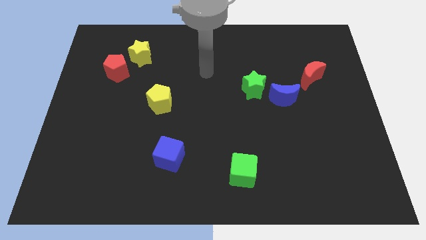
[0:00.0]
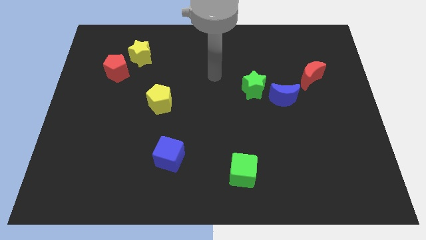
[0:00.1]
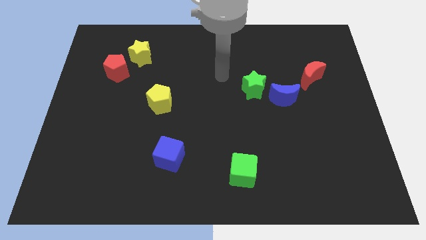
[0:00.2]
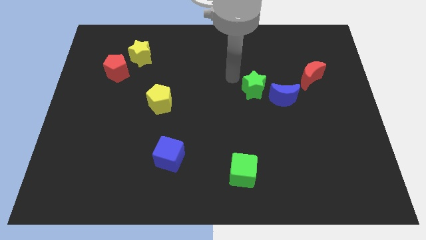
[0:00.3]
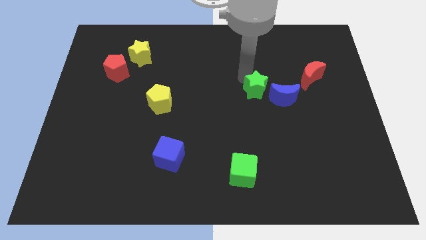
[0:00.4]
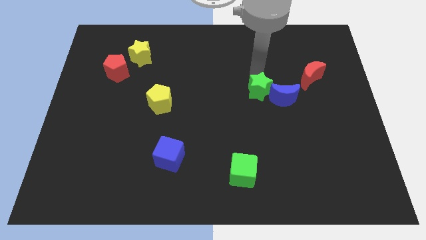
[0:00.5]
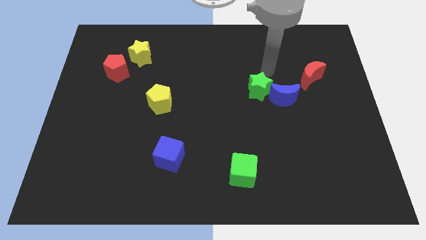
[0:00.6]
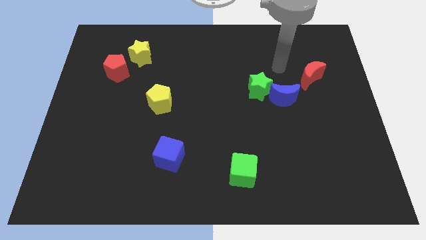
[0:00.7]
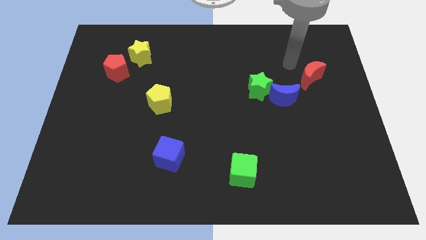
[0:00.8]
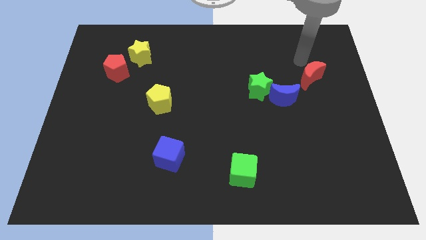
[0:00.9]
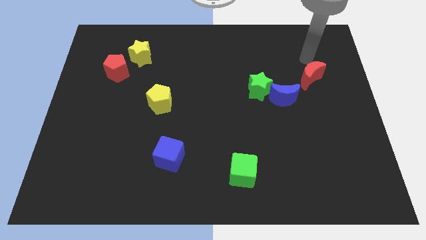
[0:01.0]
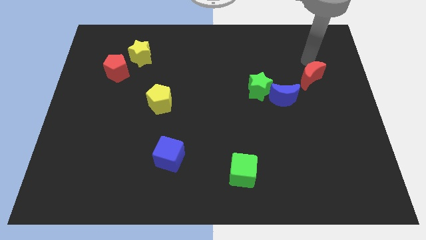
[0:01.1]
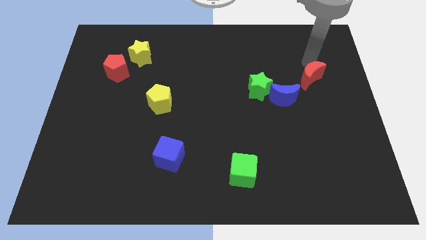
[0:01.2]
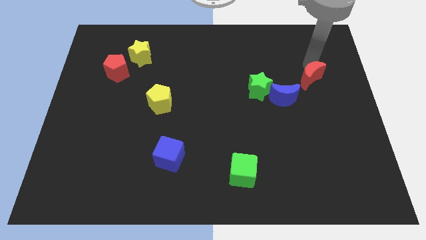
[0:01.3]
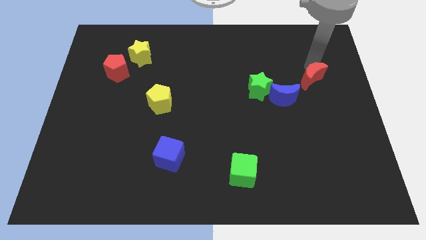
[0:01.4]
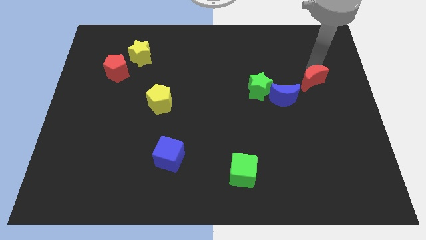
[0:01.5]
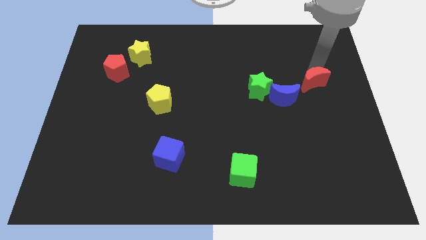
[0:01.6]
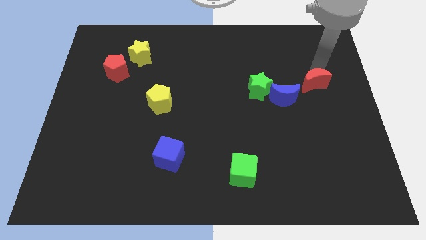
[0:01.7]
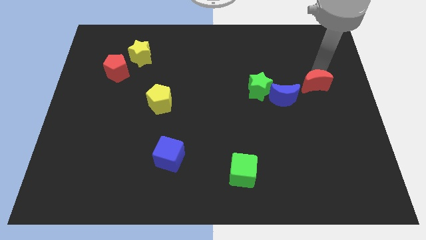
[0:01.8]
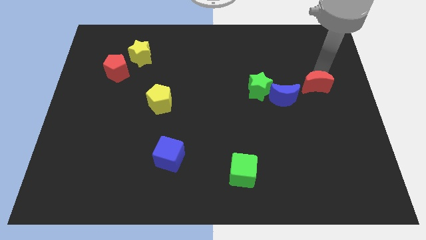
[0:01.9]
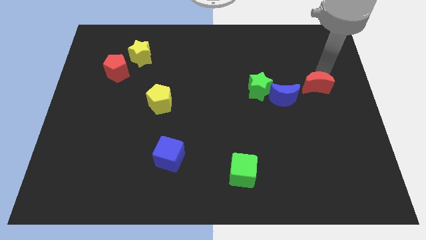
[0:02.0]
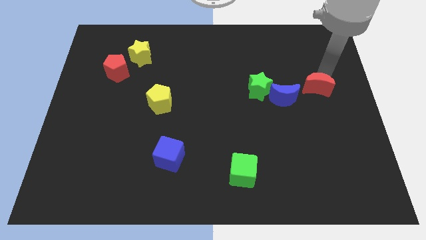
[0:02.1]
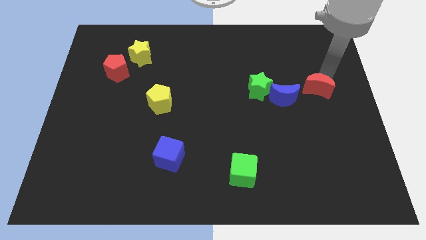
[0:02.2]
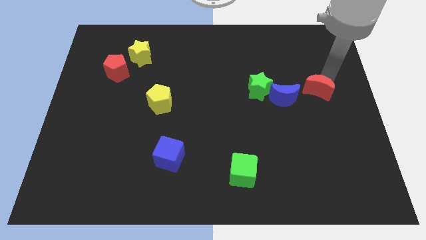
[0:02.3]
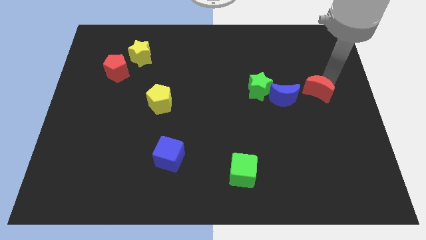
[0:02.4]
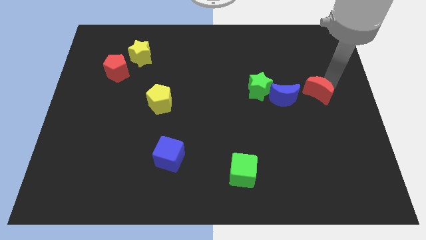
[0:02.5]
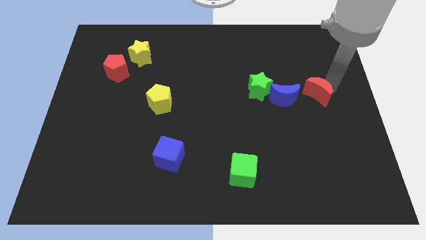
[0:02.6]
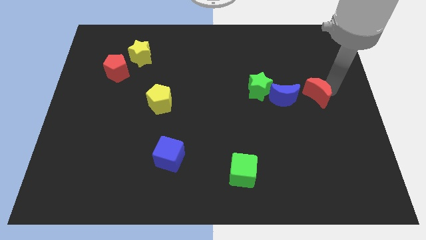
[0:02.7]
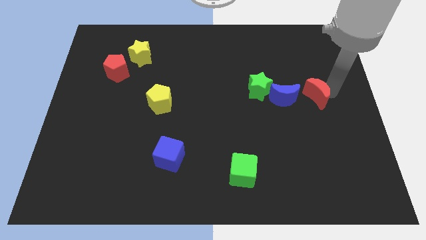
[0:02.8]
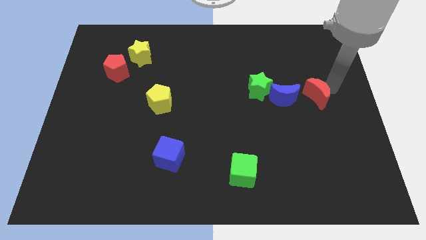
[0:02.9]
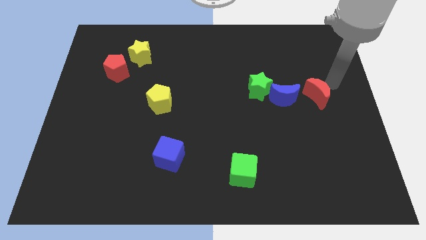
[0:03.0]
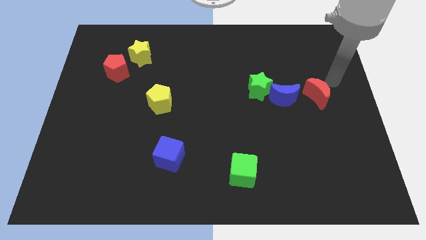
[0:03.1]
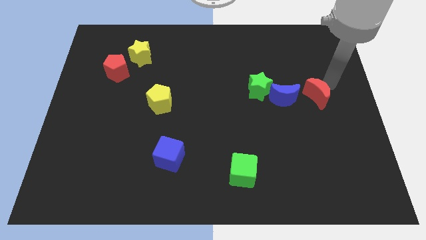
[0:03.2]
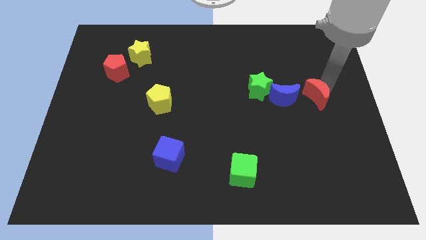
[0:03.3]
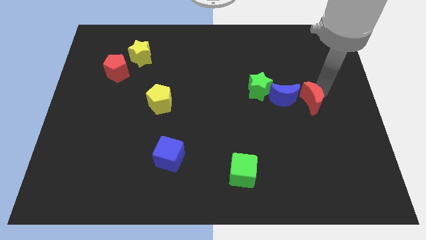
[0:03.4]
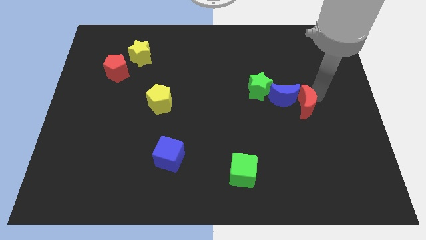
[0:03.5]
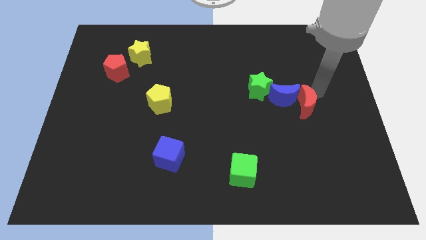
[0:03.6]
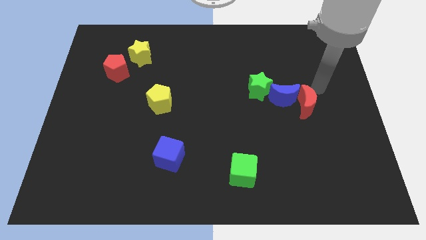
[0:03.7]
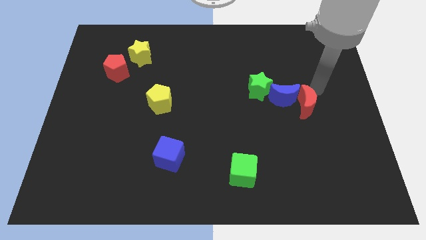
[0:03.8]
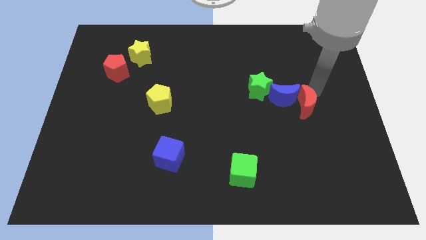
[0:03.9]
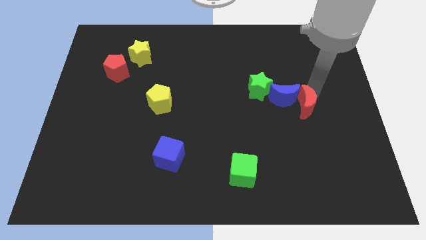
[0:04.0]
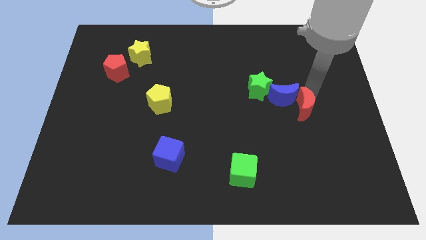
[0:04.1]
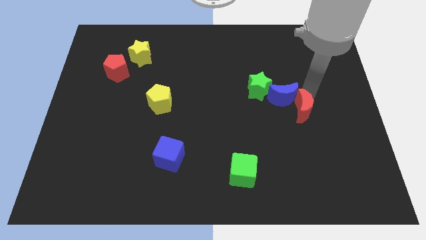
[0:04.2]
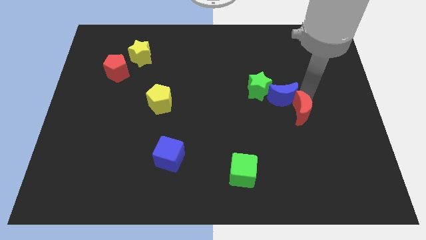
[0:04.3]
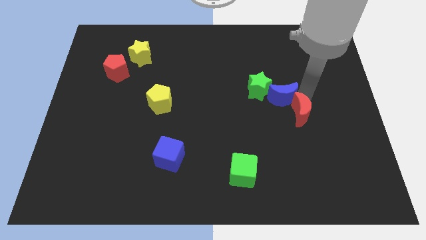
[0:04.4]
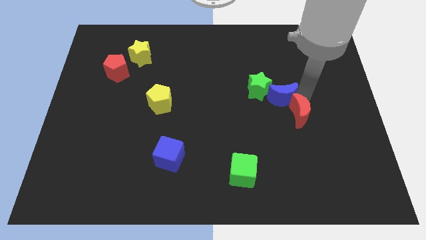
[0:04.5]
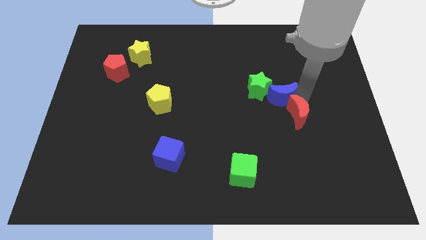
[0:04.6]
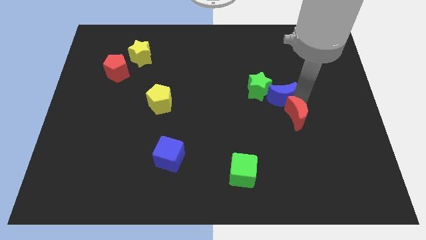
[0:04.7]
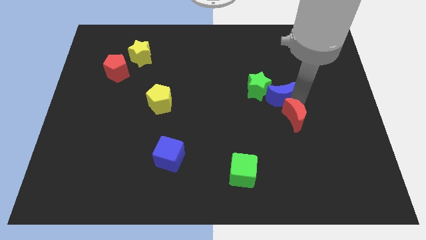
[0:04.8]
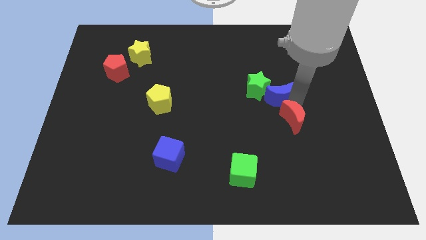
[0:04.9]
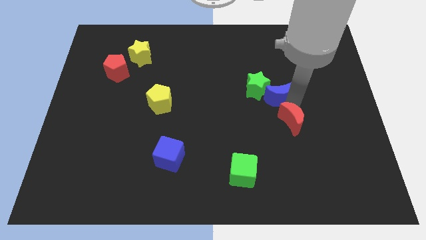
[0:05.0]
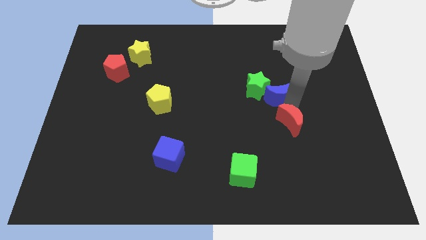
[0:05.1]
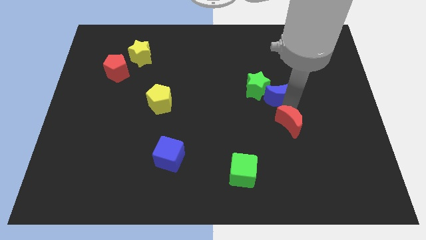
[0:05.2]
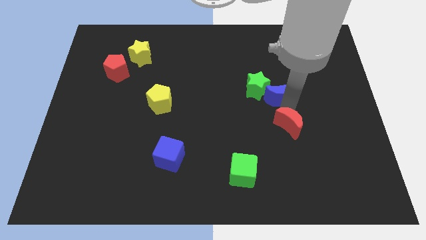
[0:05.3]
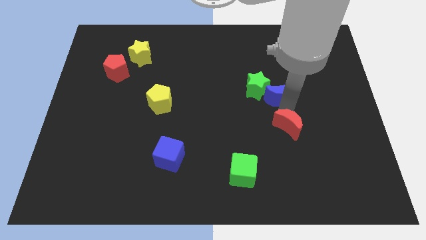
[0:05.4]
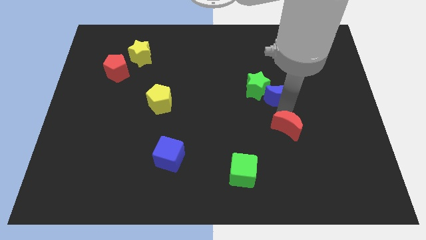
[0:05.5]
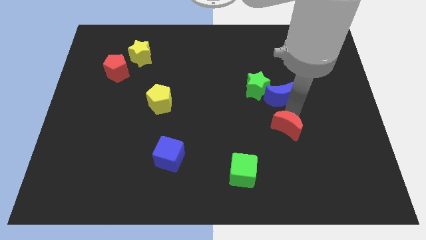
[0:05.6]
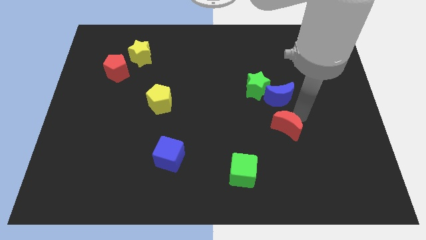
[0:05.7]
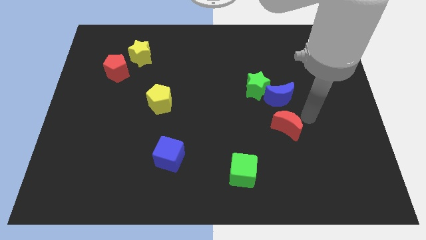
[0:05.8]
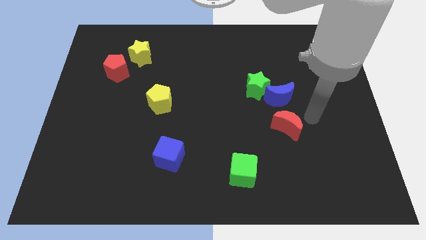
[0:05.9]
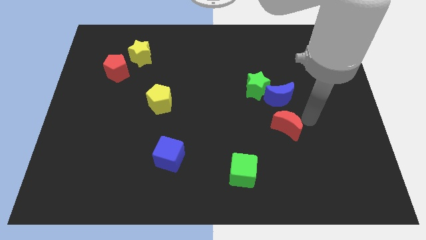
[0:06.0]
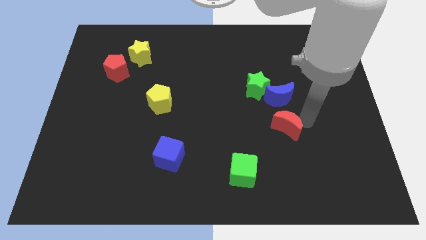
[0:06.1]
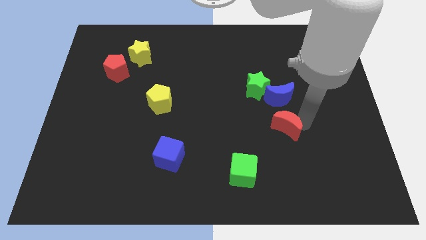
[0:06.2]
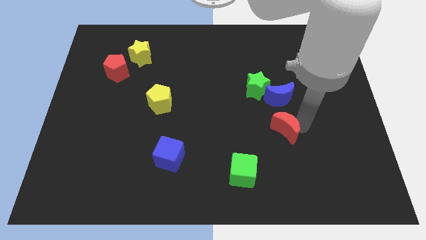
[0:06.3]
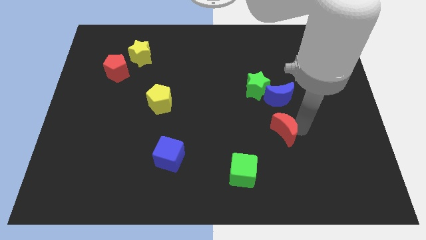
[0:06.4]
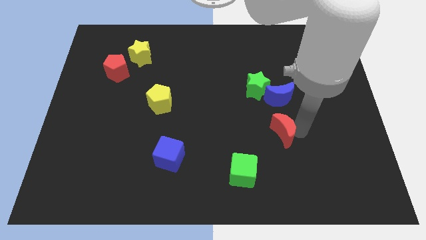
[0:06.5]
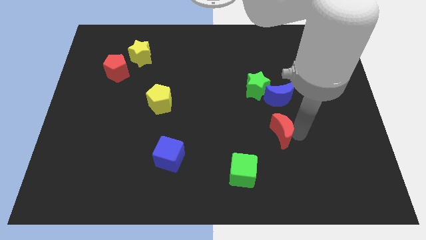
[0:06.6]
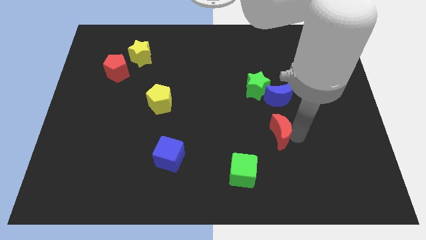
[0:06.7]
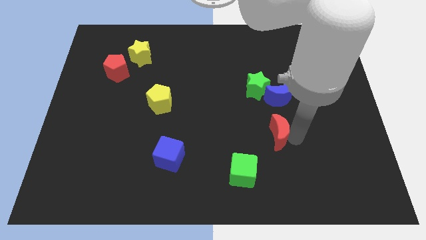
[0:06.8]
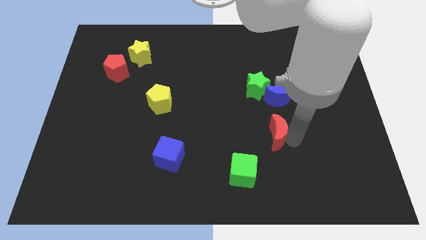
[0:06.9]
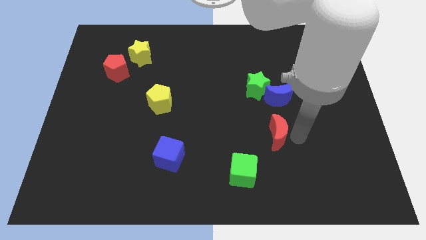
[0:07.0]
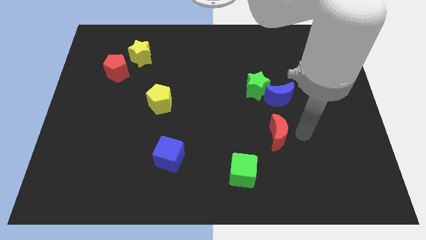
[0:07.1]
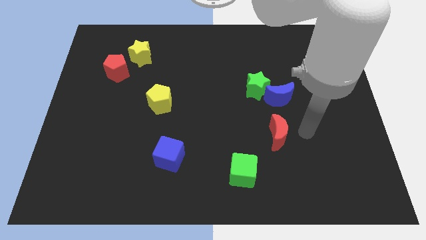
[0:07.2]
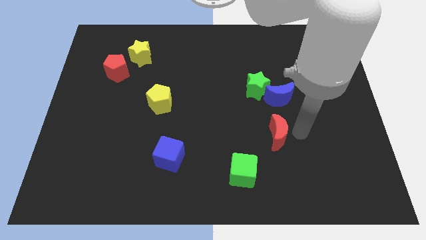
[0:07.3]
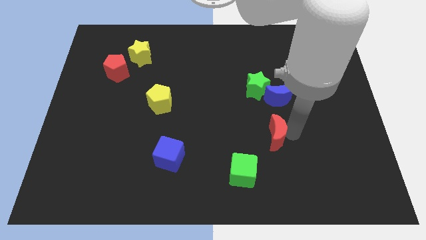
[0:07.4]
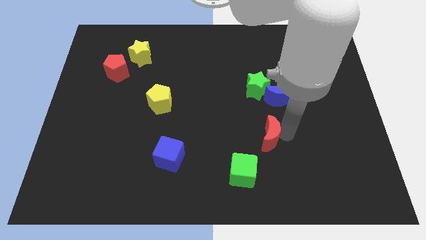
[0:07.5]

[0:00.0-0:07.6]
slide the red moon downwards and then left

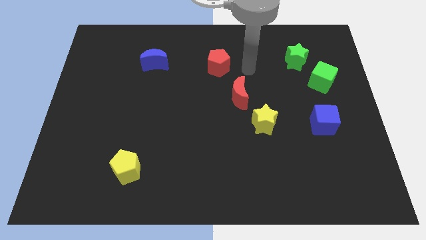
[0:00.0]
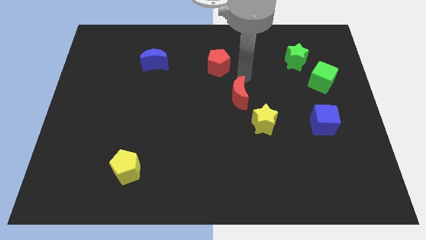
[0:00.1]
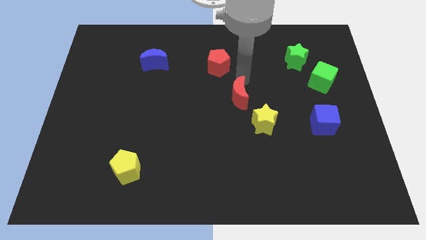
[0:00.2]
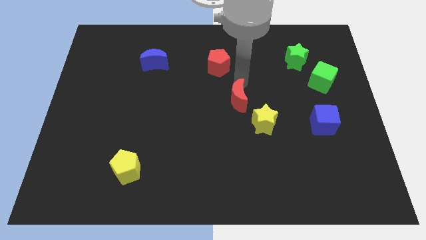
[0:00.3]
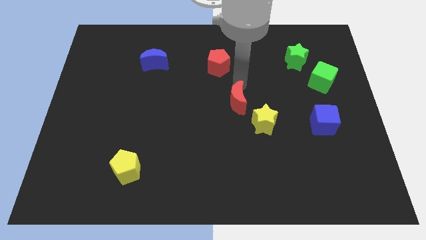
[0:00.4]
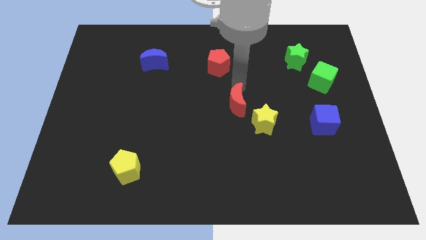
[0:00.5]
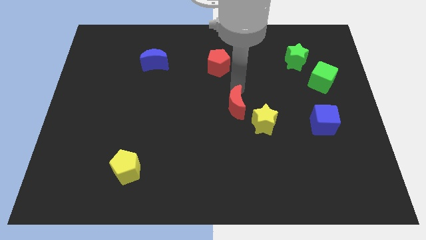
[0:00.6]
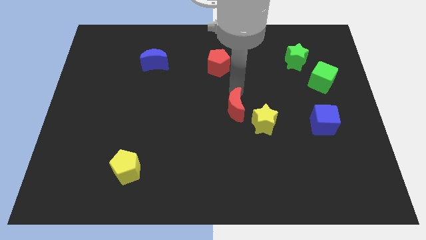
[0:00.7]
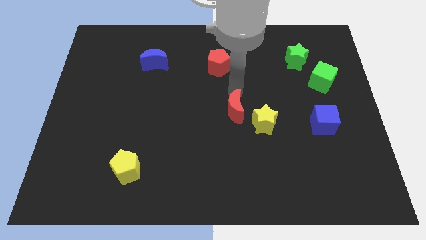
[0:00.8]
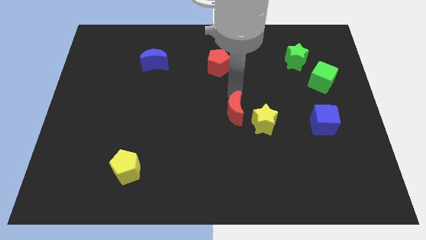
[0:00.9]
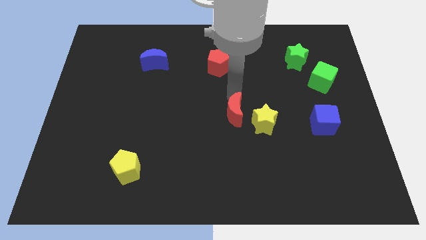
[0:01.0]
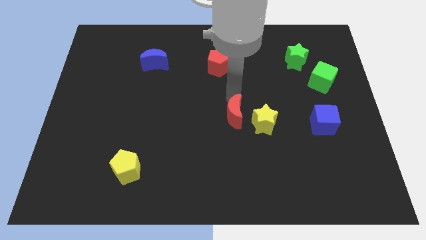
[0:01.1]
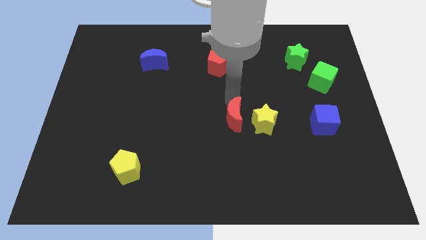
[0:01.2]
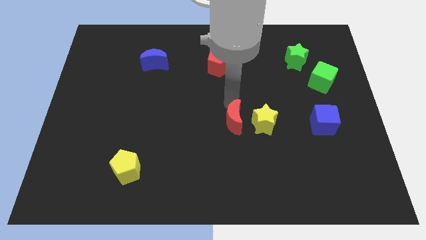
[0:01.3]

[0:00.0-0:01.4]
slide the red moon downwards a bit
